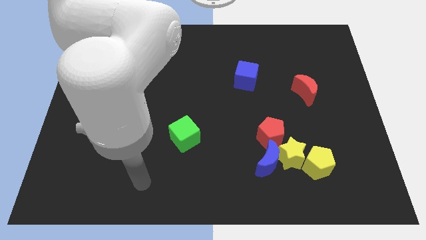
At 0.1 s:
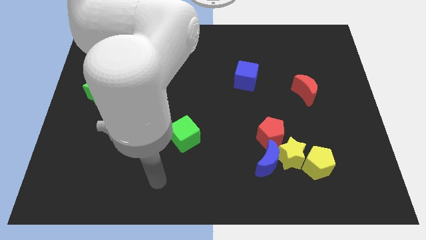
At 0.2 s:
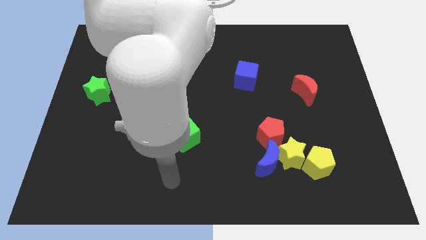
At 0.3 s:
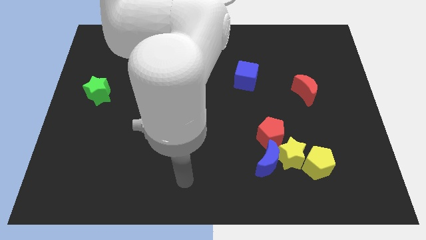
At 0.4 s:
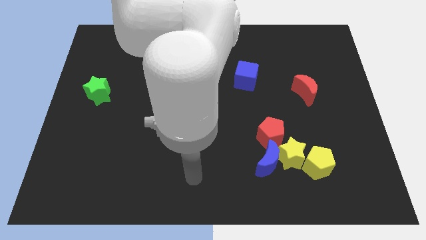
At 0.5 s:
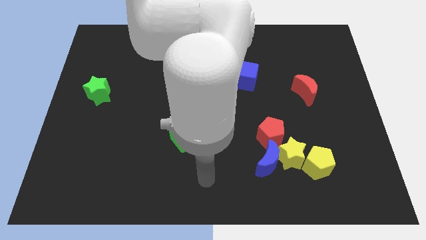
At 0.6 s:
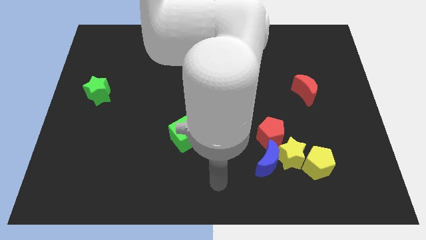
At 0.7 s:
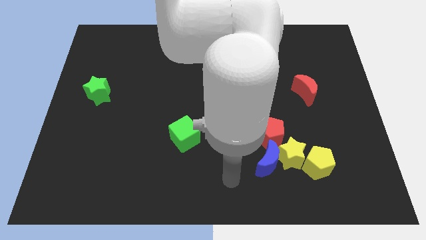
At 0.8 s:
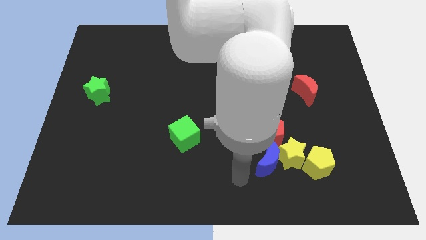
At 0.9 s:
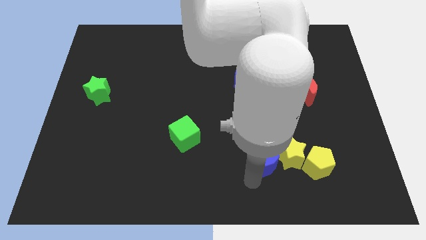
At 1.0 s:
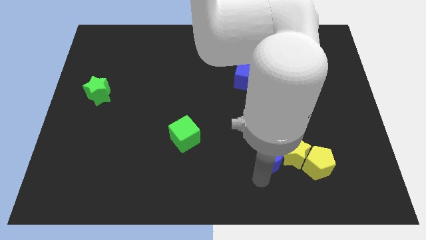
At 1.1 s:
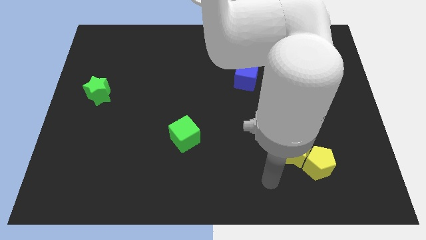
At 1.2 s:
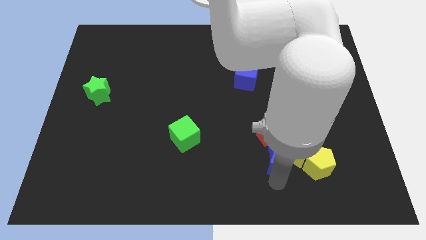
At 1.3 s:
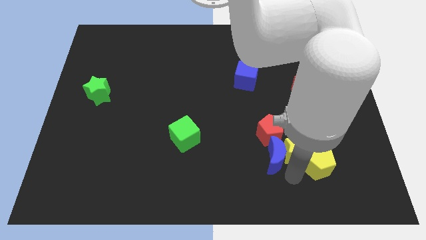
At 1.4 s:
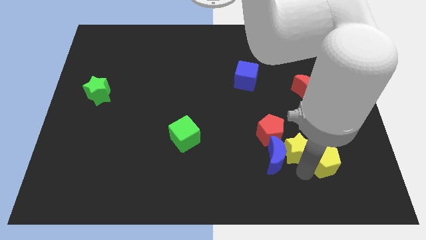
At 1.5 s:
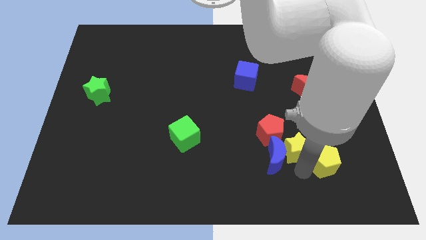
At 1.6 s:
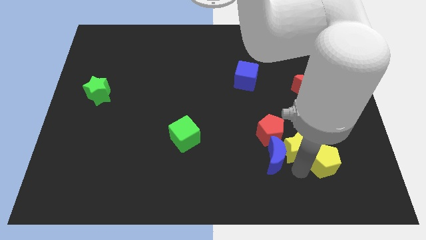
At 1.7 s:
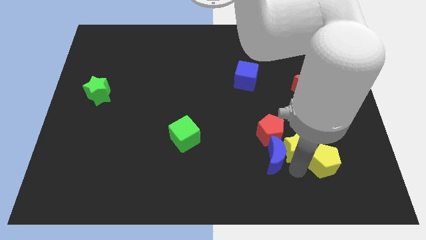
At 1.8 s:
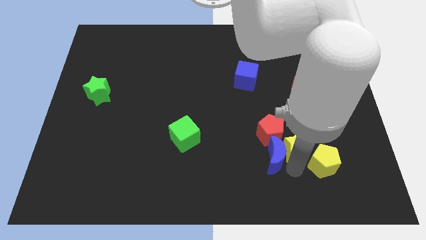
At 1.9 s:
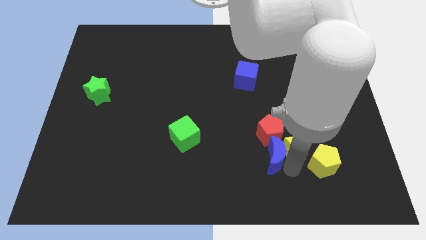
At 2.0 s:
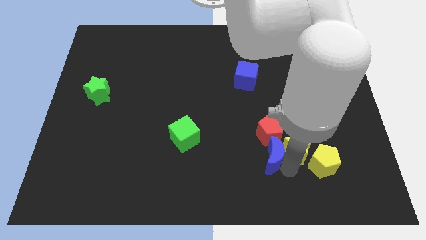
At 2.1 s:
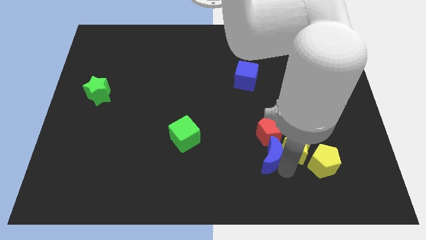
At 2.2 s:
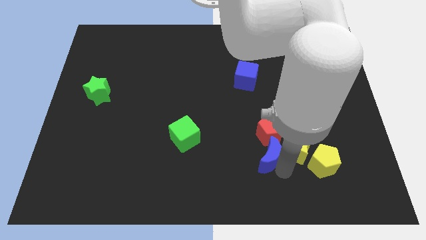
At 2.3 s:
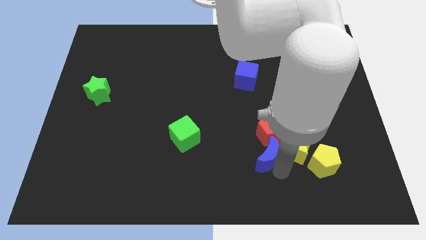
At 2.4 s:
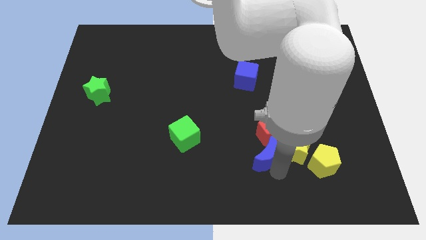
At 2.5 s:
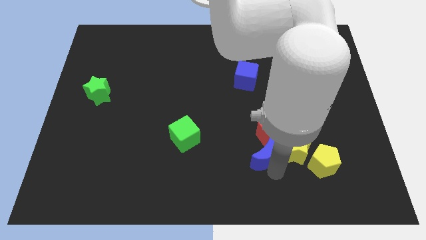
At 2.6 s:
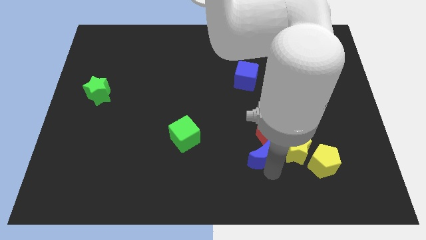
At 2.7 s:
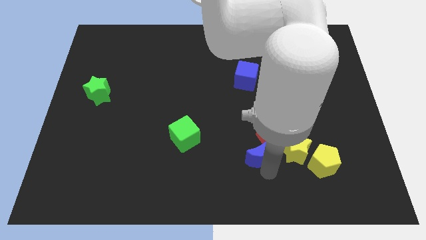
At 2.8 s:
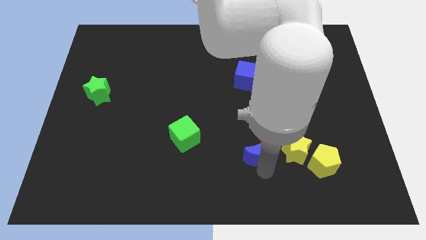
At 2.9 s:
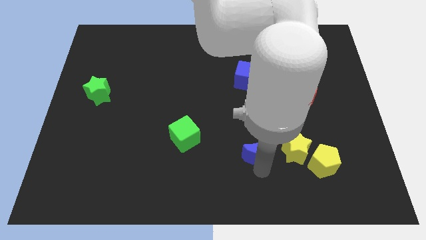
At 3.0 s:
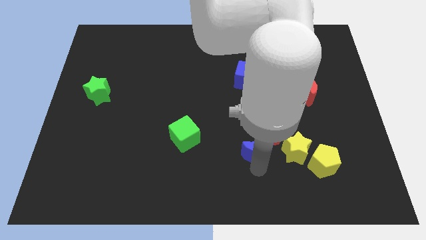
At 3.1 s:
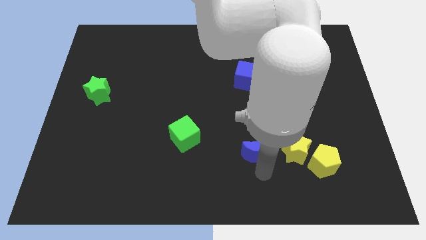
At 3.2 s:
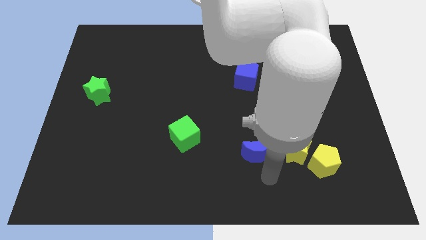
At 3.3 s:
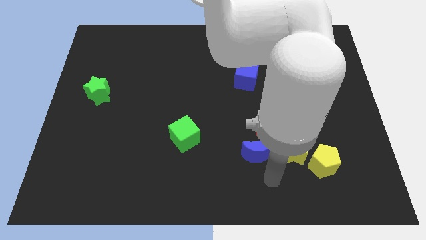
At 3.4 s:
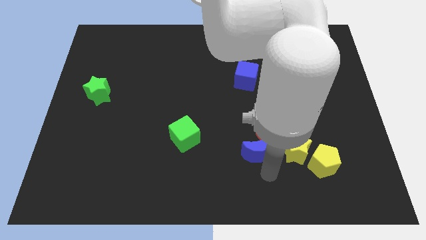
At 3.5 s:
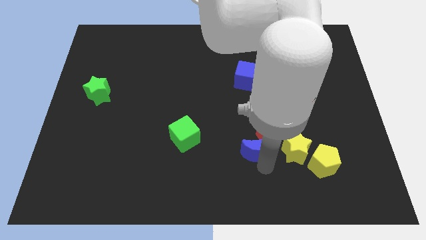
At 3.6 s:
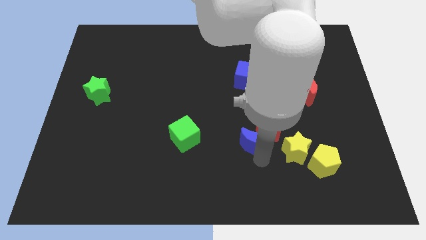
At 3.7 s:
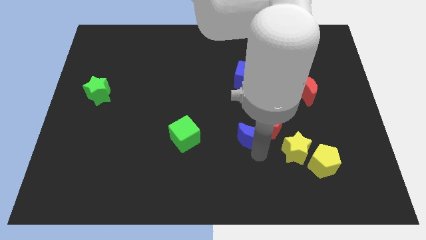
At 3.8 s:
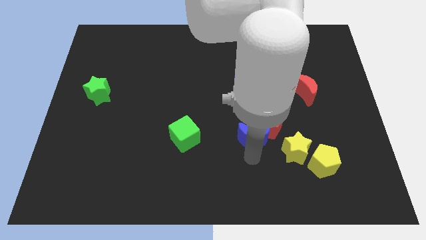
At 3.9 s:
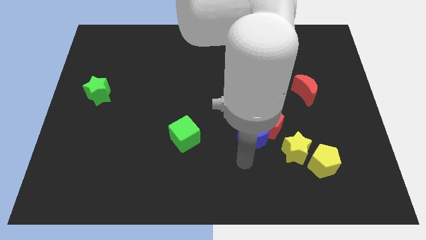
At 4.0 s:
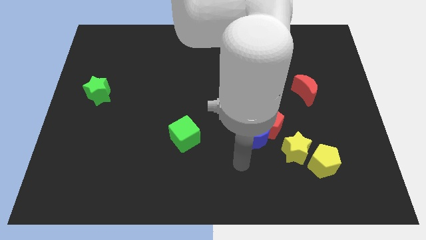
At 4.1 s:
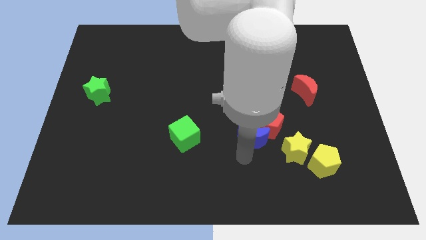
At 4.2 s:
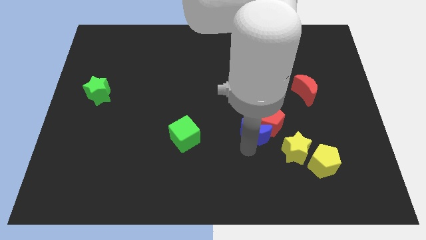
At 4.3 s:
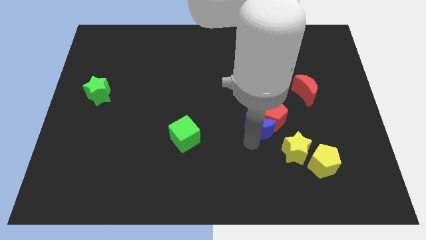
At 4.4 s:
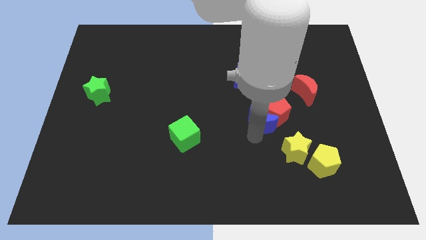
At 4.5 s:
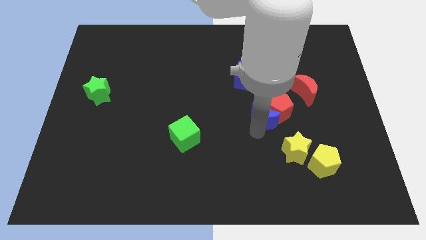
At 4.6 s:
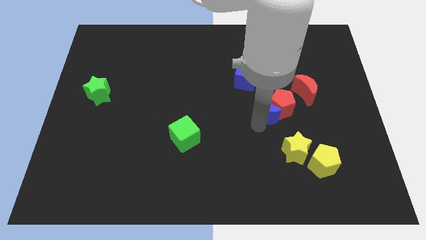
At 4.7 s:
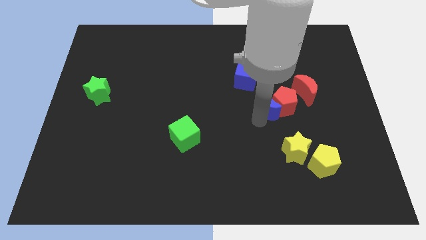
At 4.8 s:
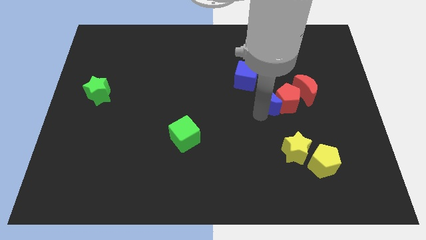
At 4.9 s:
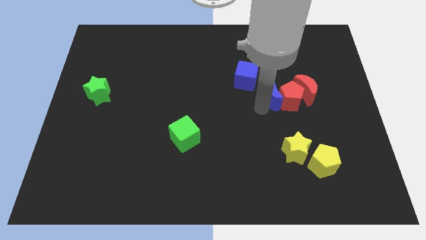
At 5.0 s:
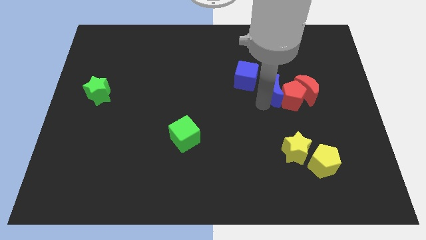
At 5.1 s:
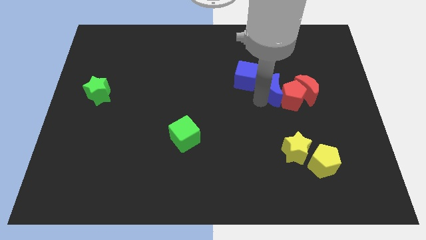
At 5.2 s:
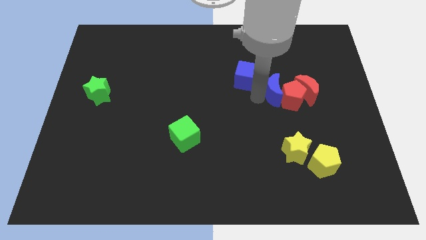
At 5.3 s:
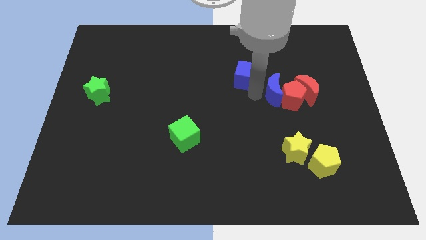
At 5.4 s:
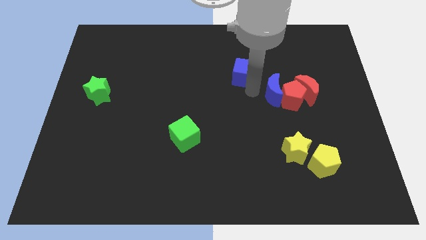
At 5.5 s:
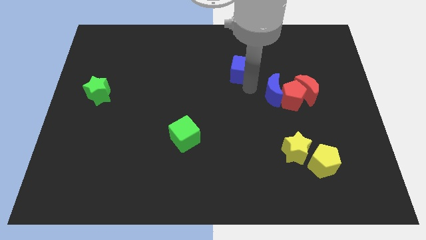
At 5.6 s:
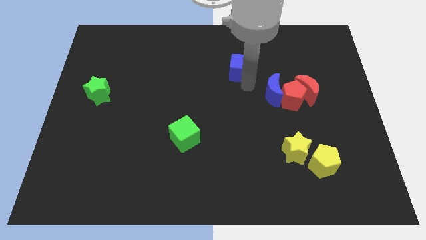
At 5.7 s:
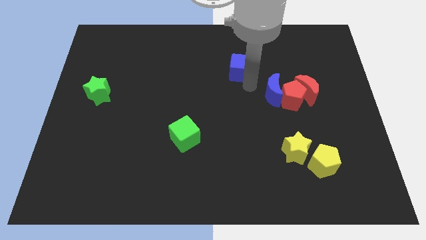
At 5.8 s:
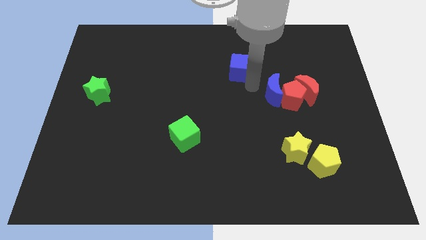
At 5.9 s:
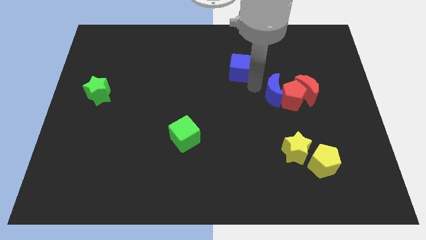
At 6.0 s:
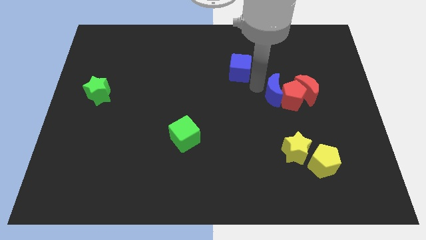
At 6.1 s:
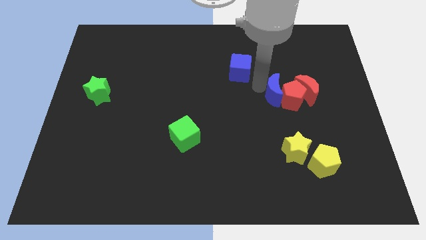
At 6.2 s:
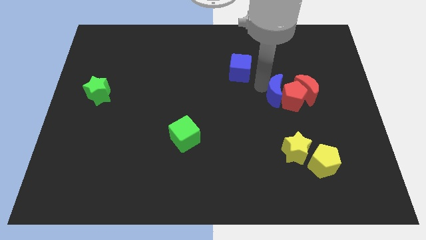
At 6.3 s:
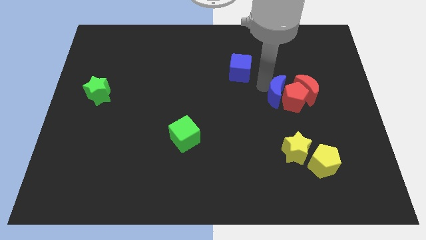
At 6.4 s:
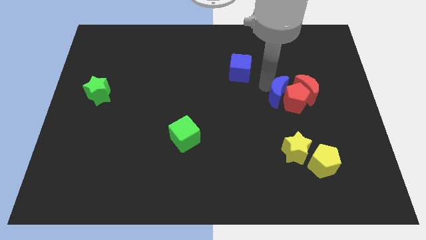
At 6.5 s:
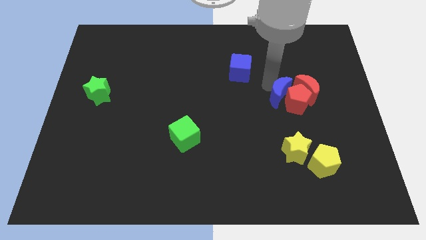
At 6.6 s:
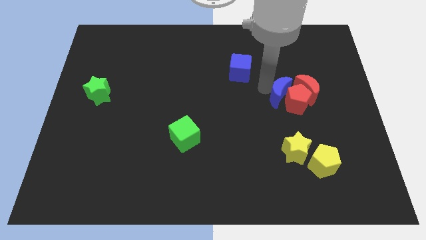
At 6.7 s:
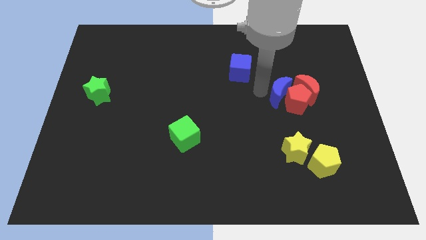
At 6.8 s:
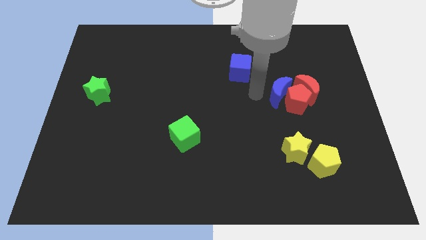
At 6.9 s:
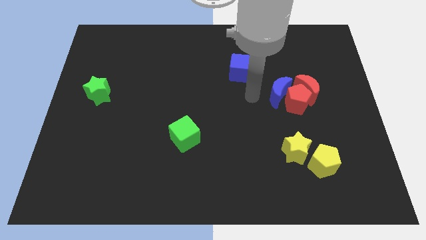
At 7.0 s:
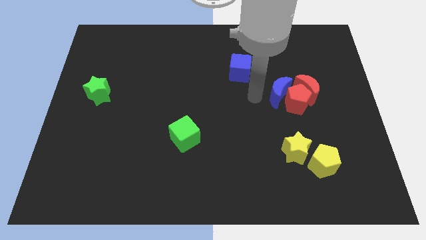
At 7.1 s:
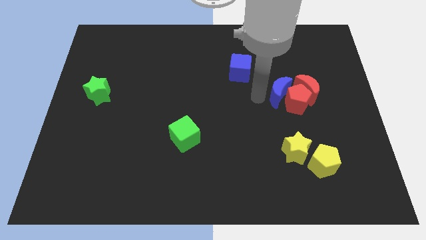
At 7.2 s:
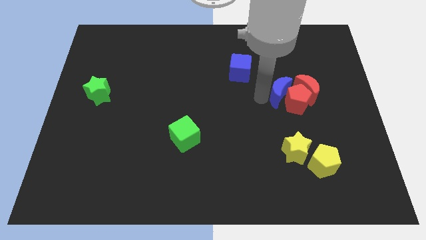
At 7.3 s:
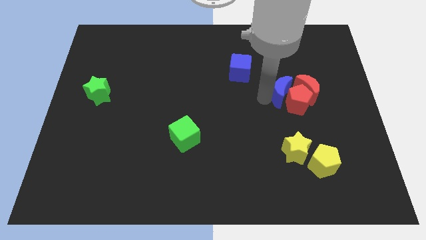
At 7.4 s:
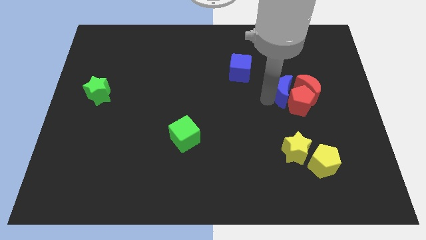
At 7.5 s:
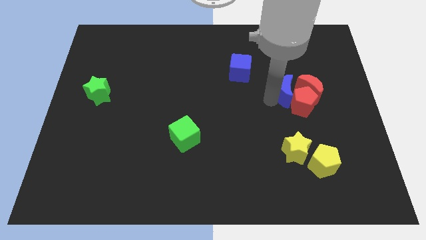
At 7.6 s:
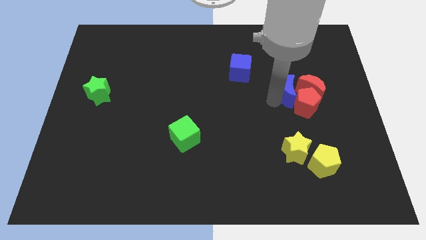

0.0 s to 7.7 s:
move the blue moon next to the red moon
